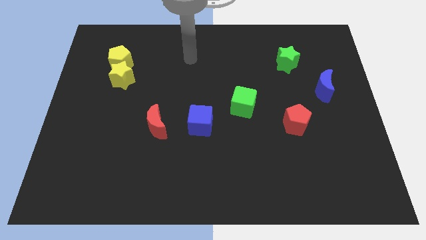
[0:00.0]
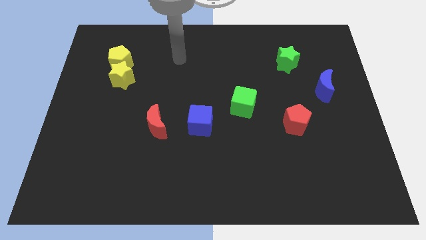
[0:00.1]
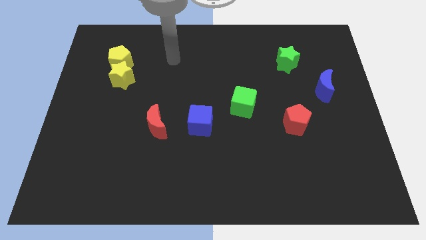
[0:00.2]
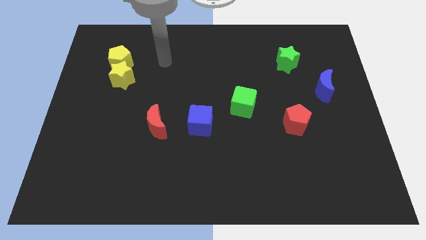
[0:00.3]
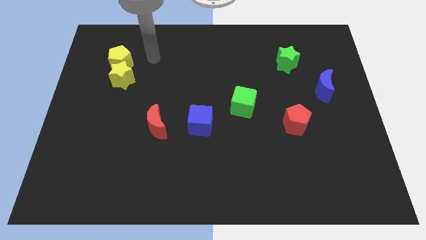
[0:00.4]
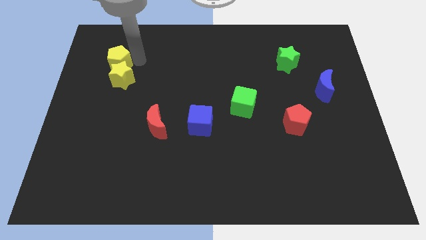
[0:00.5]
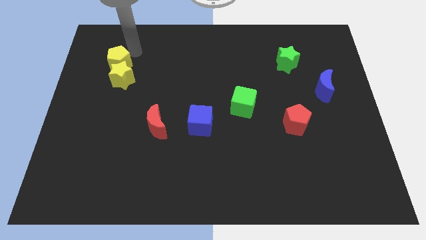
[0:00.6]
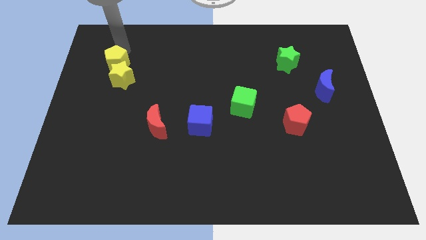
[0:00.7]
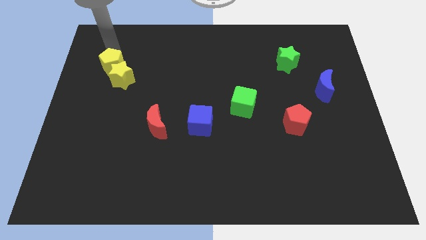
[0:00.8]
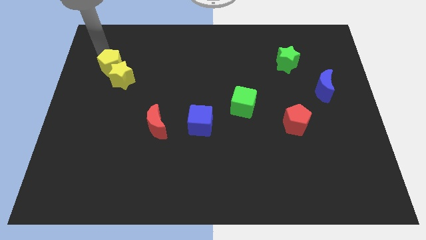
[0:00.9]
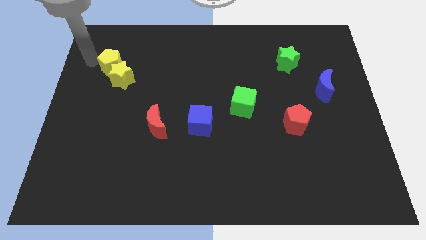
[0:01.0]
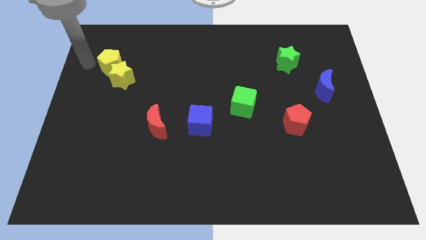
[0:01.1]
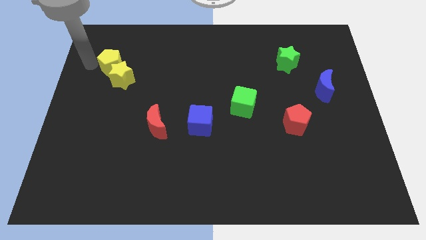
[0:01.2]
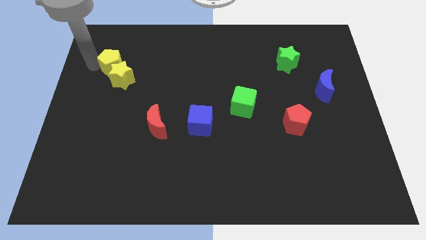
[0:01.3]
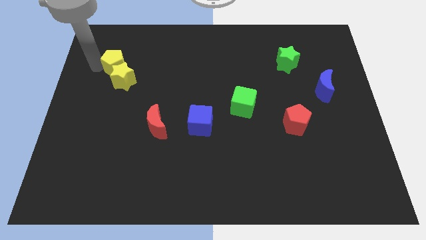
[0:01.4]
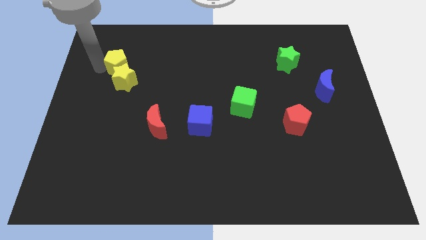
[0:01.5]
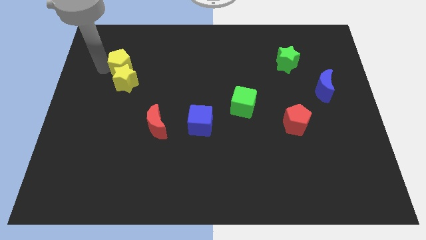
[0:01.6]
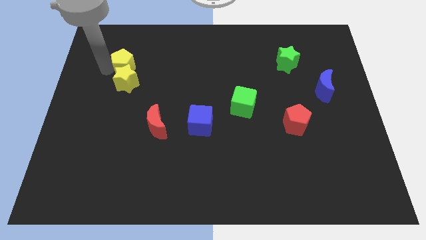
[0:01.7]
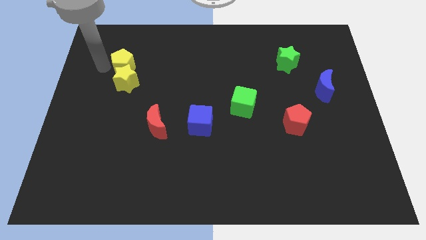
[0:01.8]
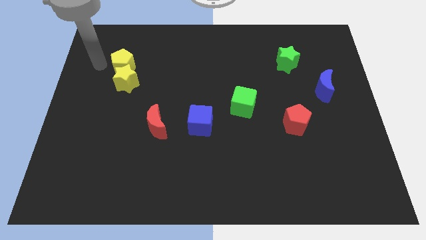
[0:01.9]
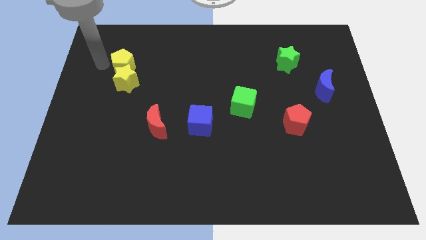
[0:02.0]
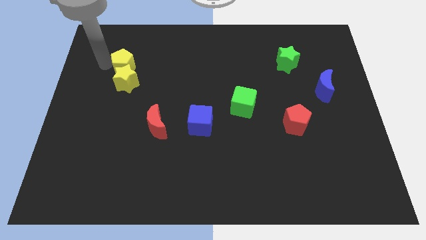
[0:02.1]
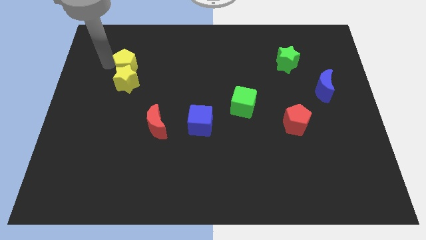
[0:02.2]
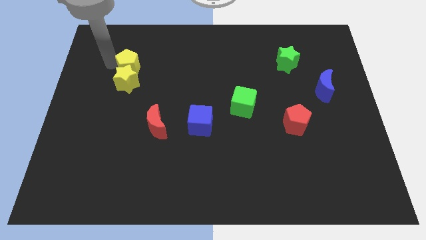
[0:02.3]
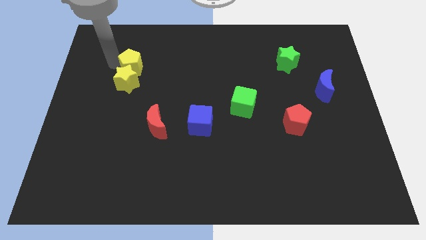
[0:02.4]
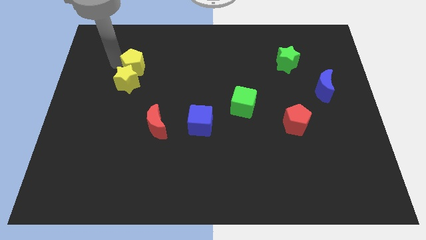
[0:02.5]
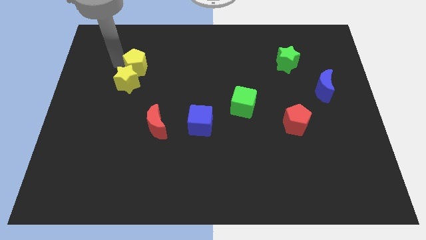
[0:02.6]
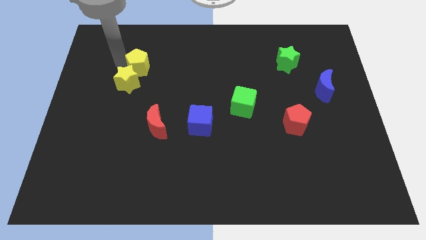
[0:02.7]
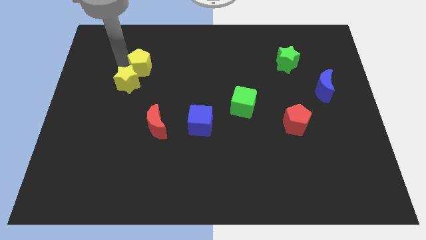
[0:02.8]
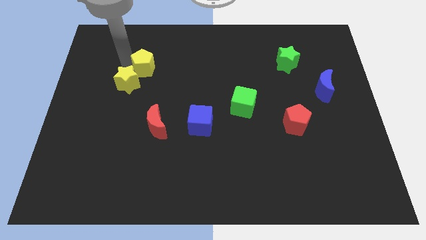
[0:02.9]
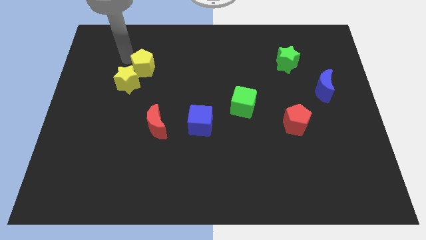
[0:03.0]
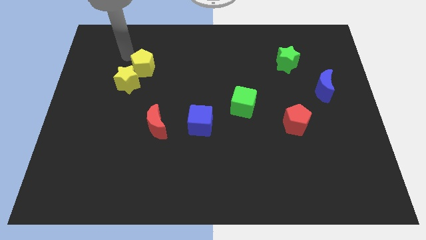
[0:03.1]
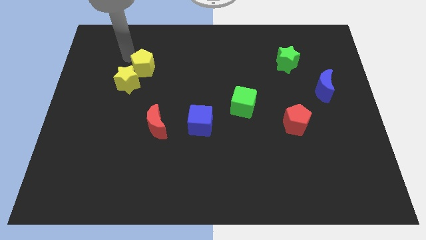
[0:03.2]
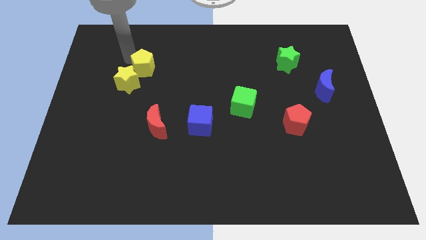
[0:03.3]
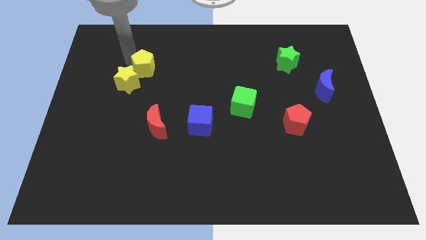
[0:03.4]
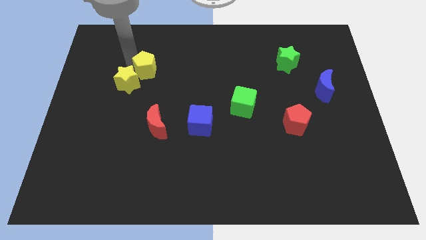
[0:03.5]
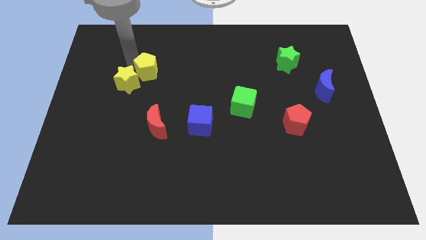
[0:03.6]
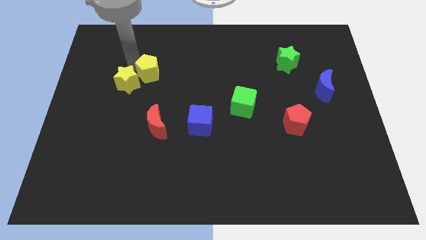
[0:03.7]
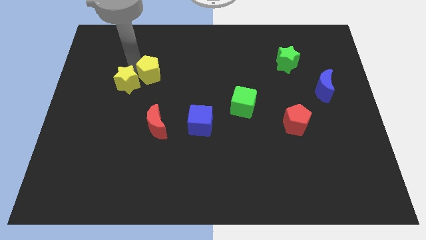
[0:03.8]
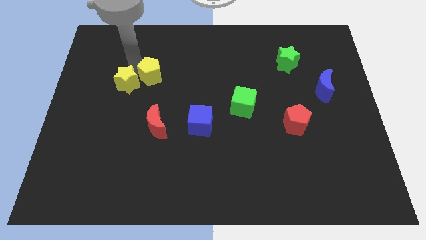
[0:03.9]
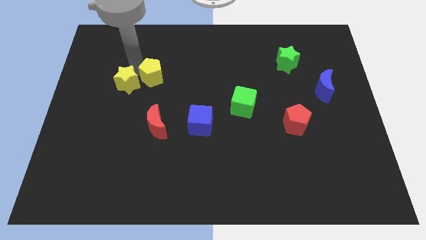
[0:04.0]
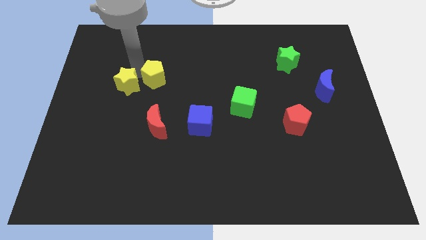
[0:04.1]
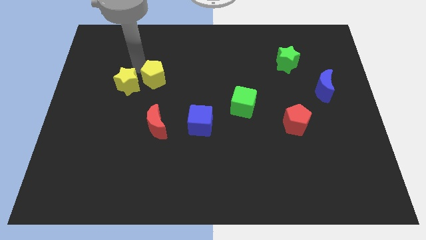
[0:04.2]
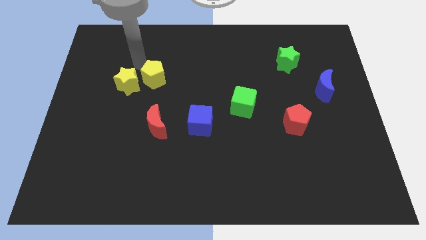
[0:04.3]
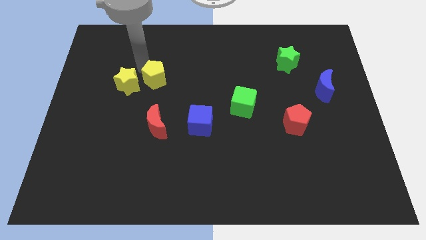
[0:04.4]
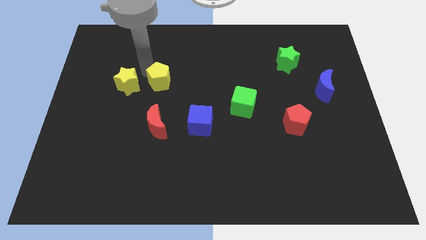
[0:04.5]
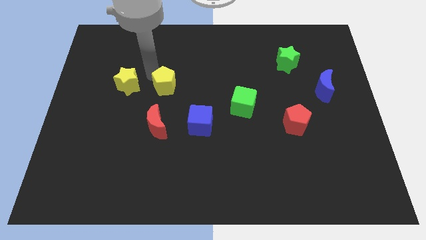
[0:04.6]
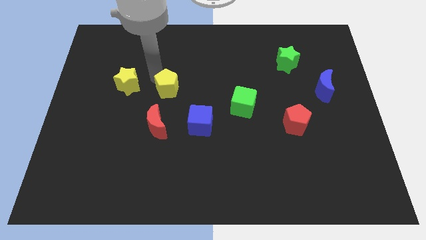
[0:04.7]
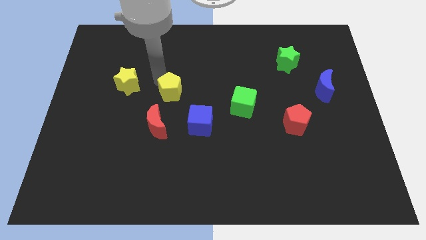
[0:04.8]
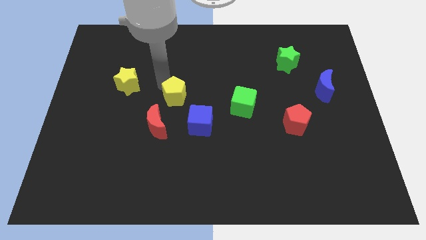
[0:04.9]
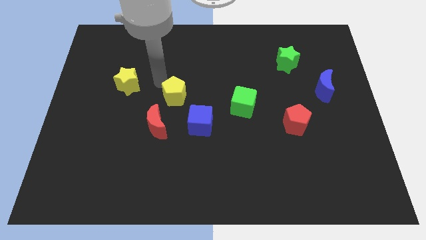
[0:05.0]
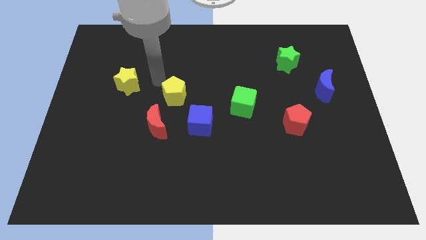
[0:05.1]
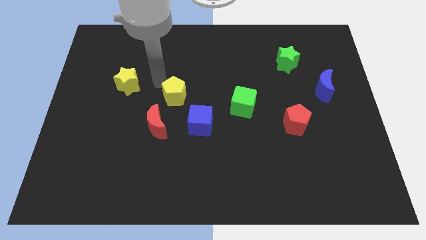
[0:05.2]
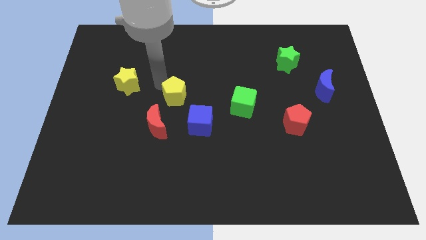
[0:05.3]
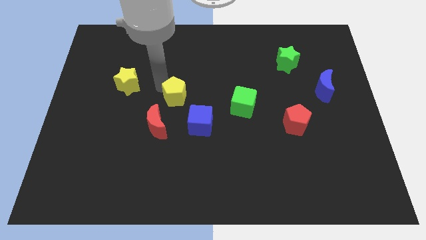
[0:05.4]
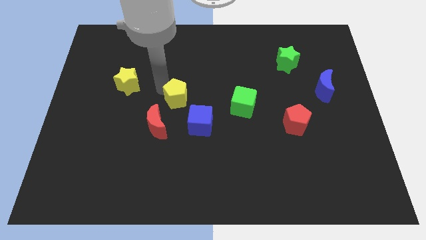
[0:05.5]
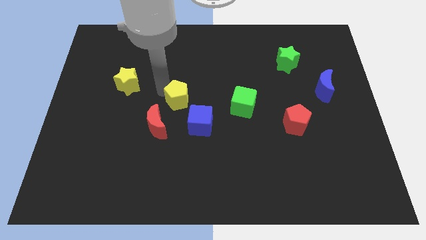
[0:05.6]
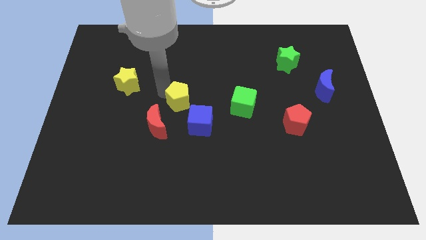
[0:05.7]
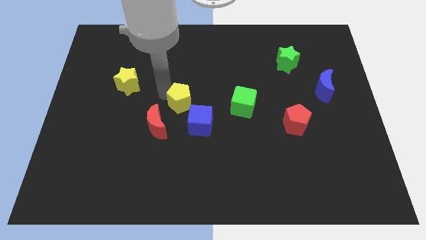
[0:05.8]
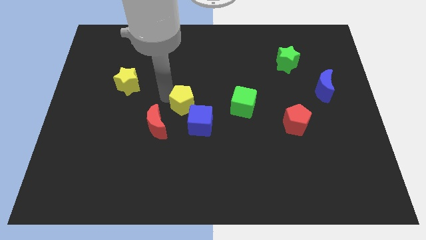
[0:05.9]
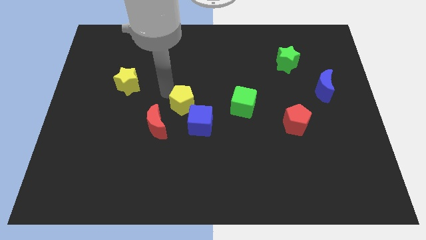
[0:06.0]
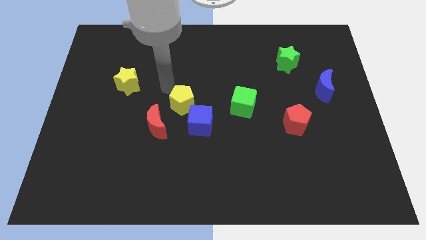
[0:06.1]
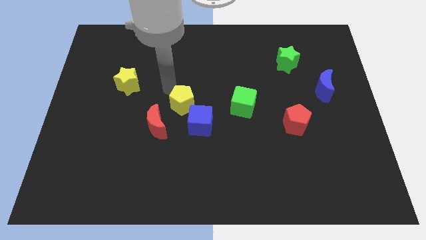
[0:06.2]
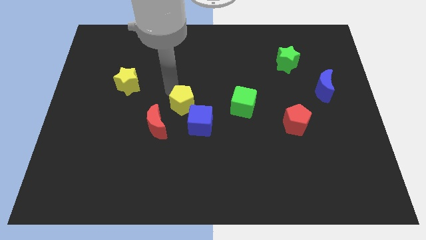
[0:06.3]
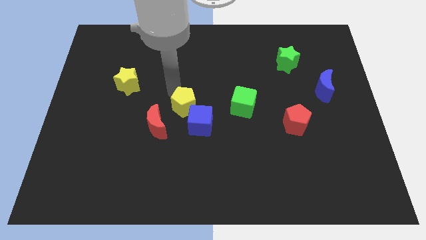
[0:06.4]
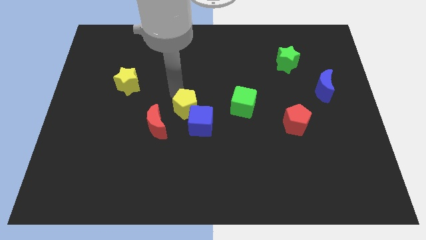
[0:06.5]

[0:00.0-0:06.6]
move the yellow pentagon next to the blue cube

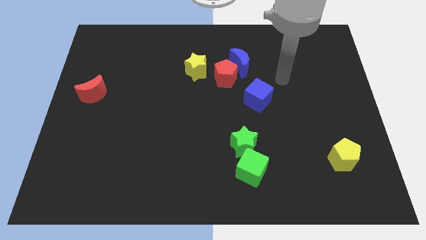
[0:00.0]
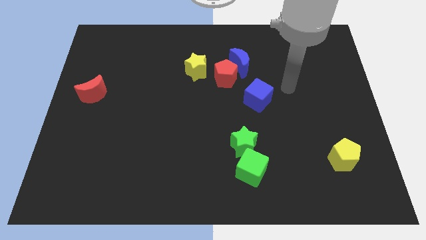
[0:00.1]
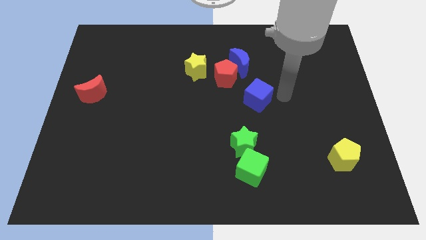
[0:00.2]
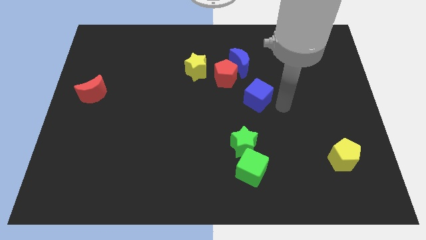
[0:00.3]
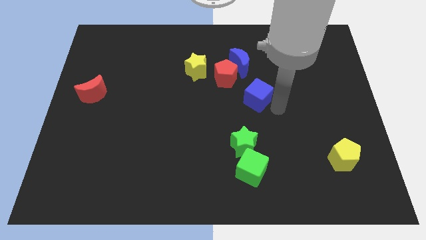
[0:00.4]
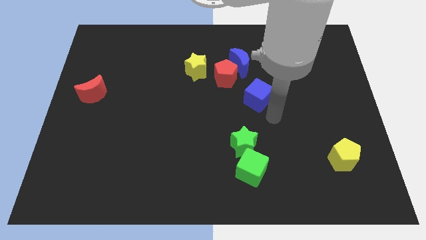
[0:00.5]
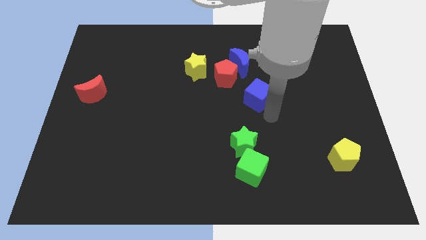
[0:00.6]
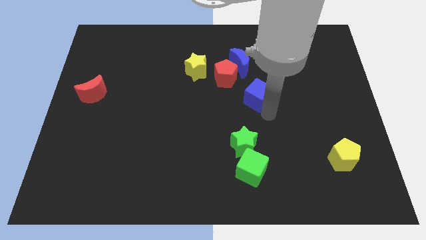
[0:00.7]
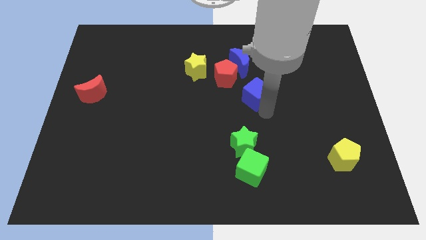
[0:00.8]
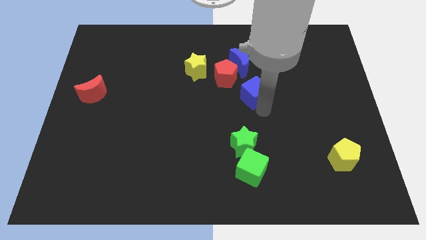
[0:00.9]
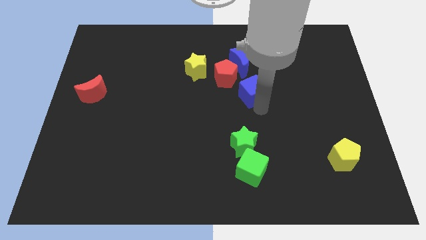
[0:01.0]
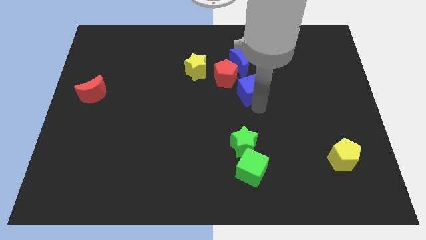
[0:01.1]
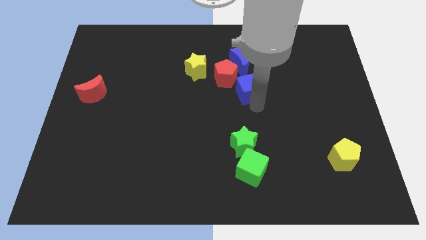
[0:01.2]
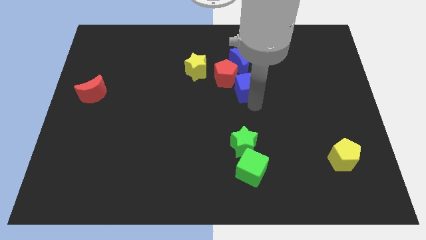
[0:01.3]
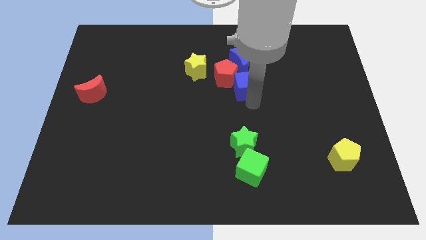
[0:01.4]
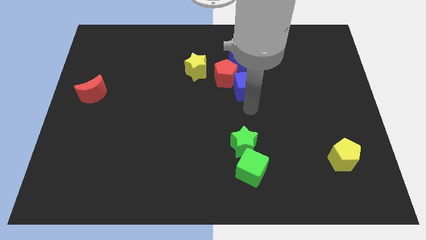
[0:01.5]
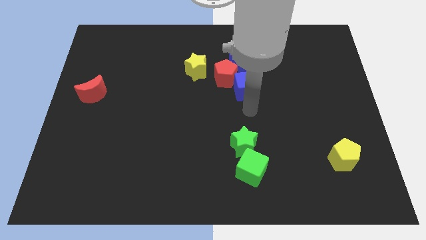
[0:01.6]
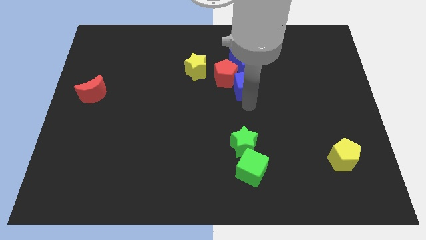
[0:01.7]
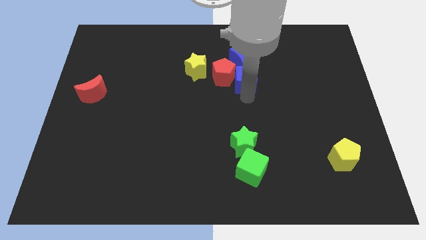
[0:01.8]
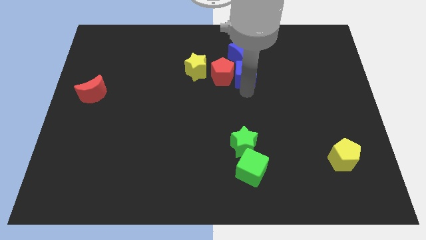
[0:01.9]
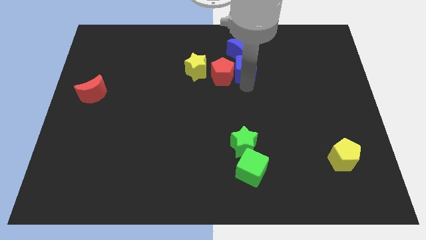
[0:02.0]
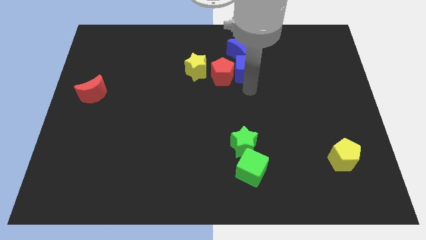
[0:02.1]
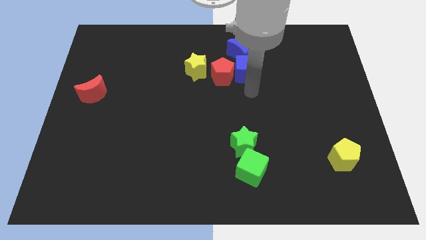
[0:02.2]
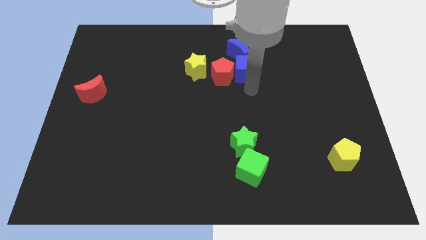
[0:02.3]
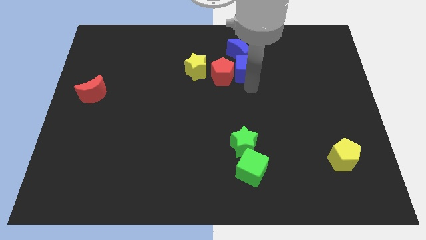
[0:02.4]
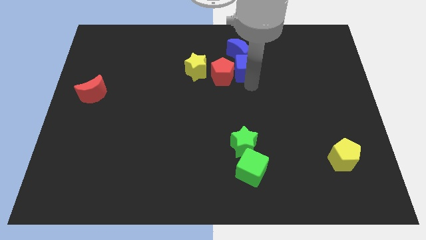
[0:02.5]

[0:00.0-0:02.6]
push the blue cube towards the blue moon
